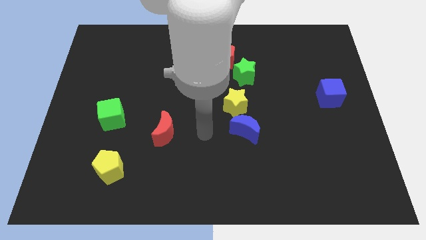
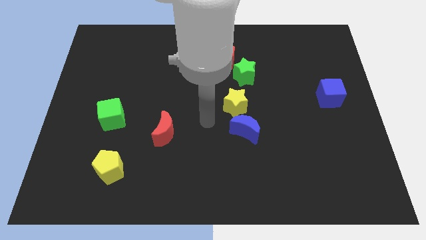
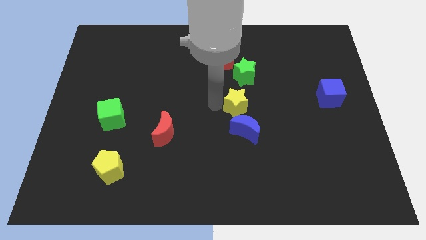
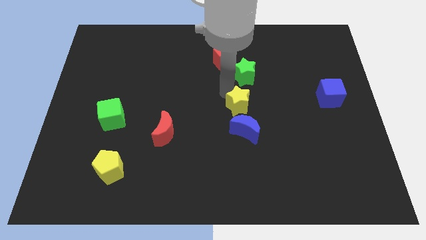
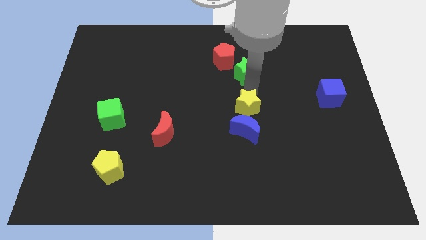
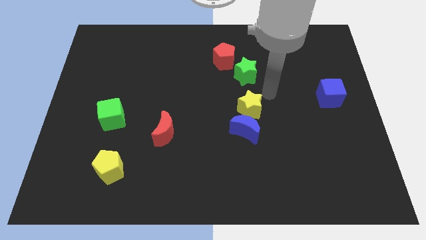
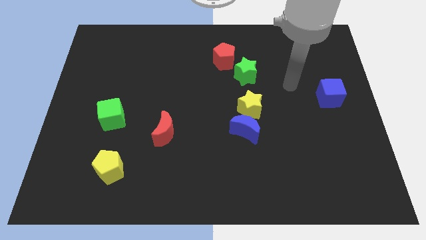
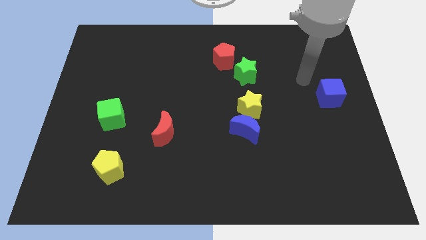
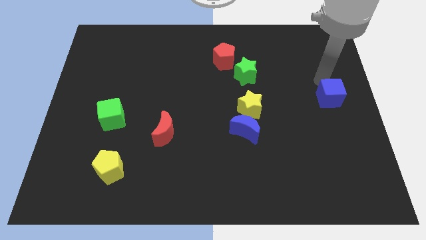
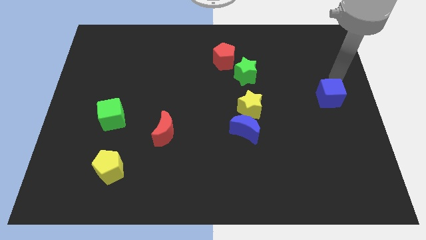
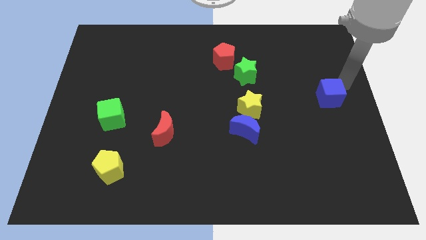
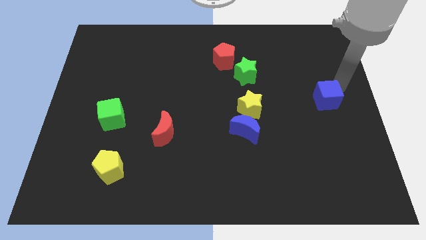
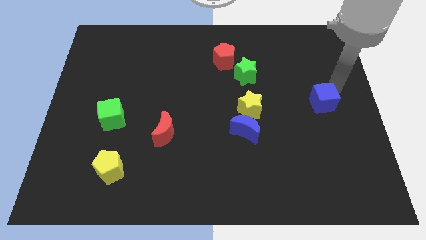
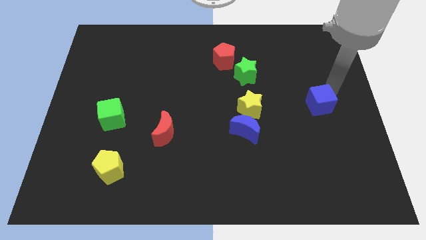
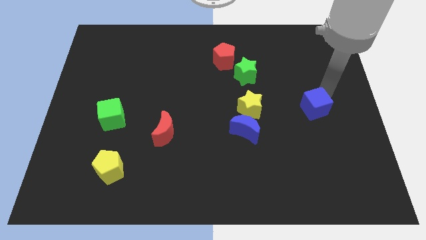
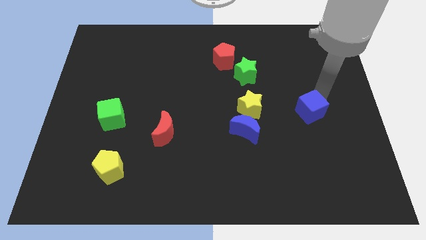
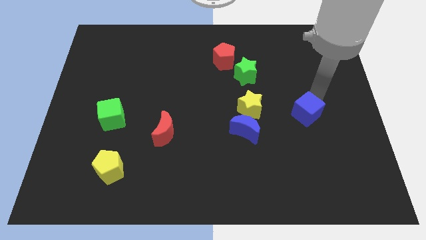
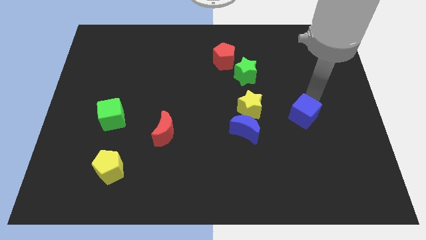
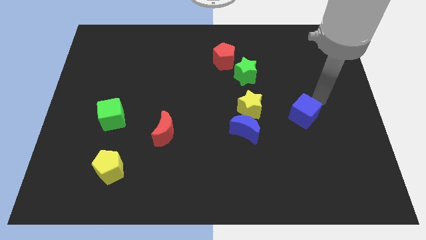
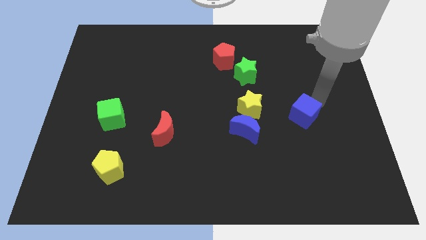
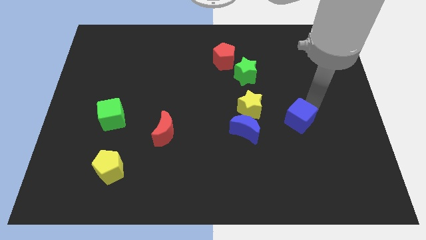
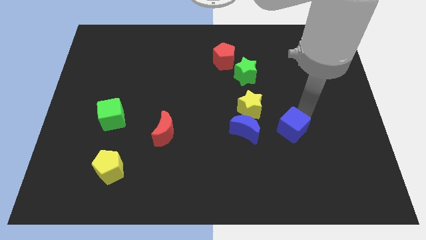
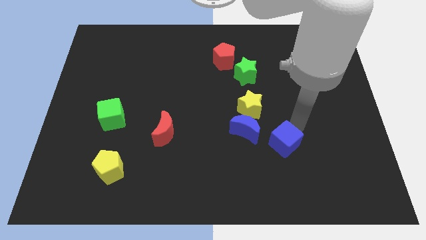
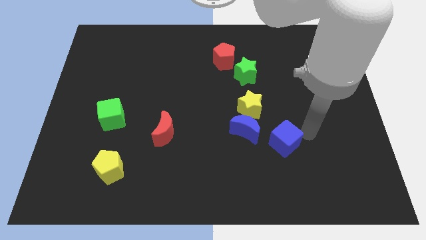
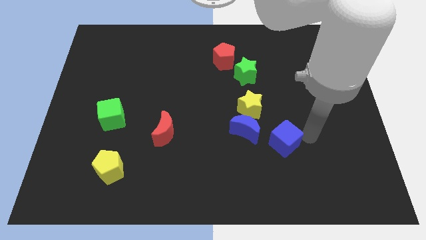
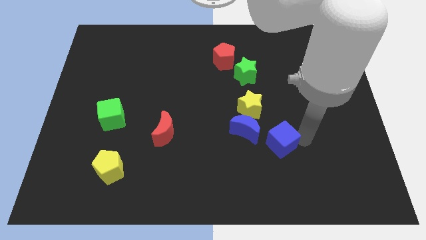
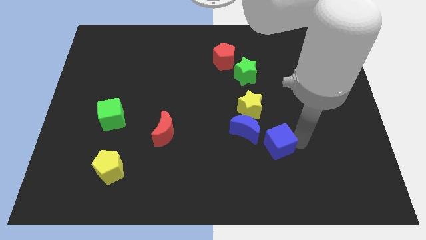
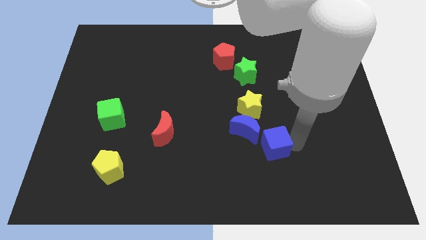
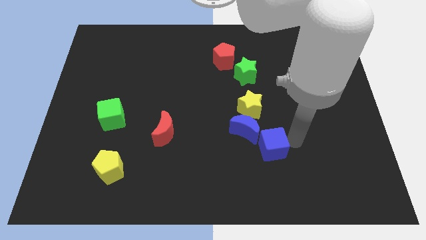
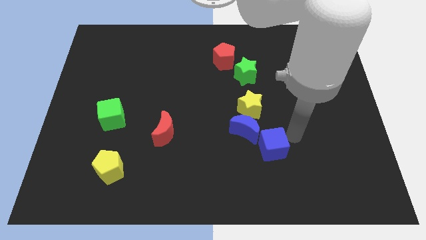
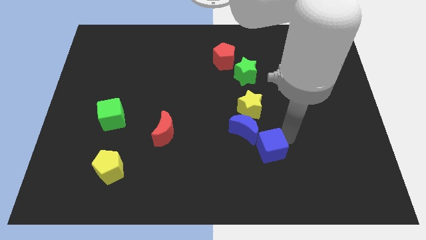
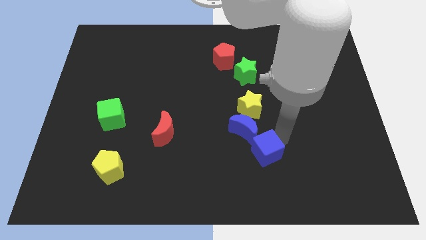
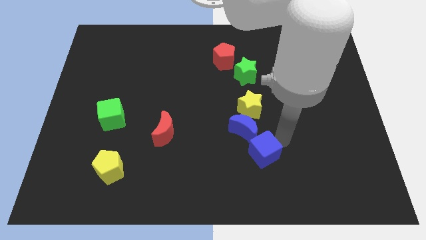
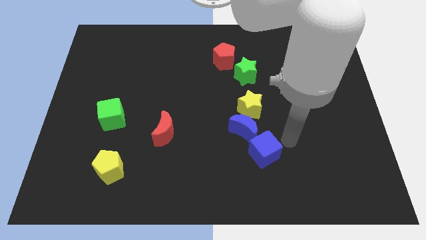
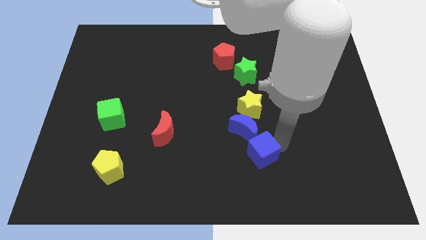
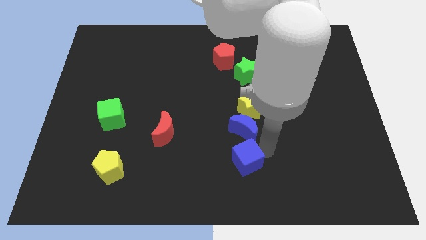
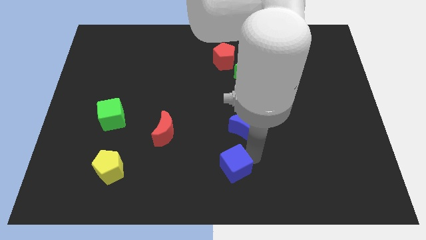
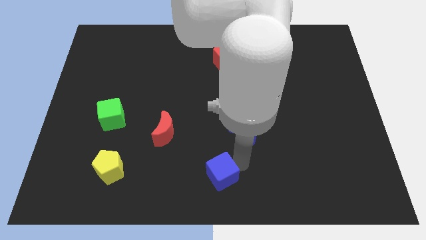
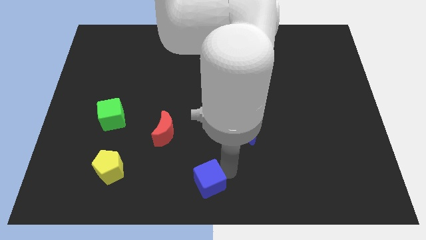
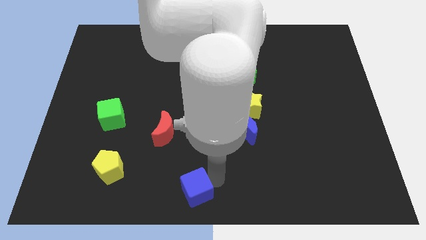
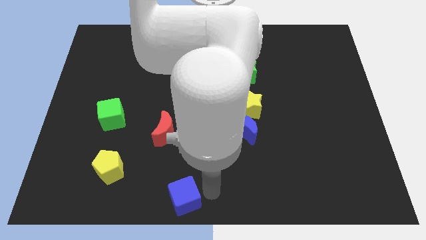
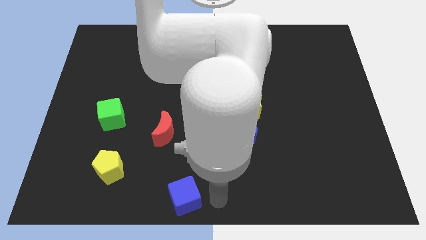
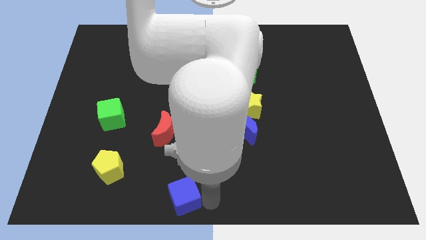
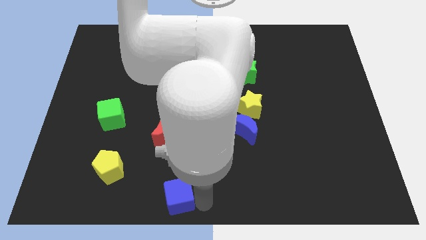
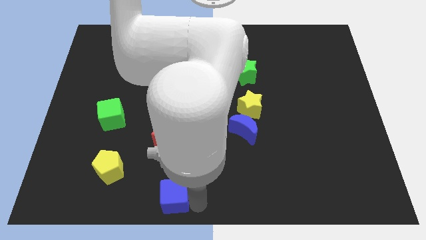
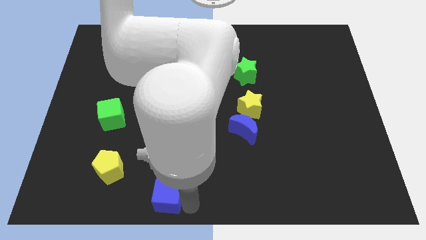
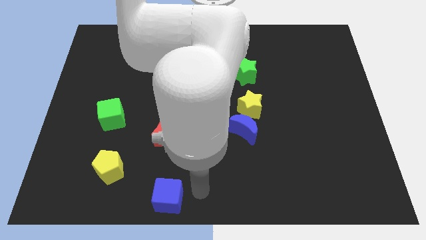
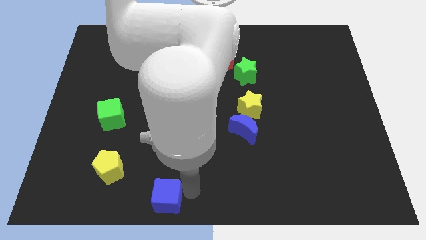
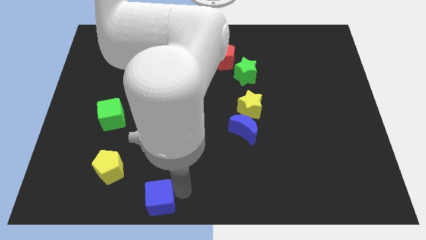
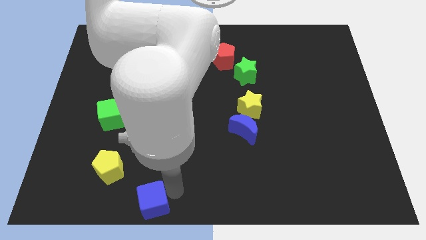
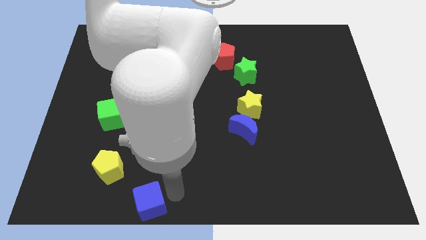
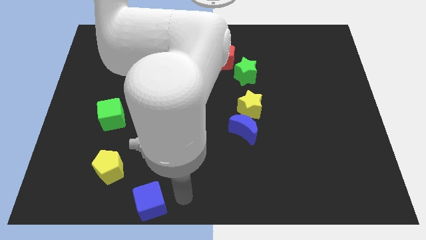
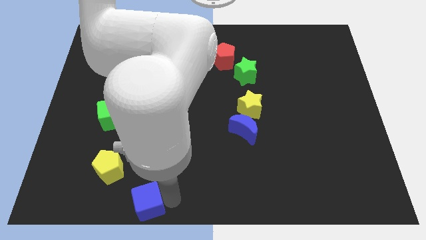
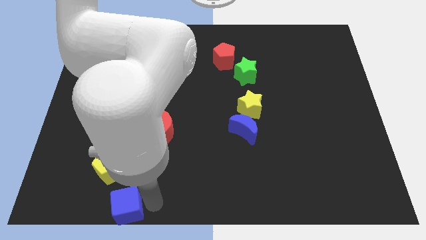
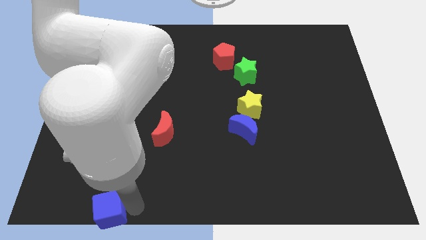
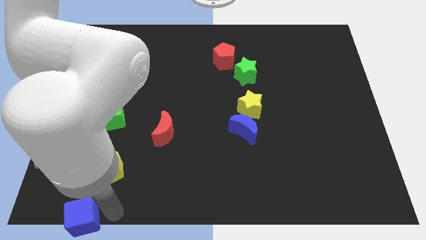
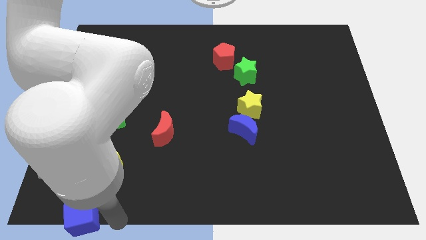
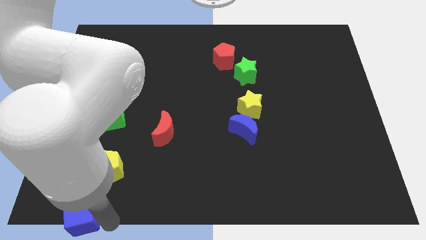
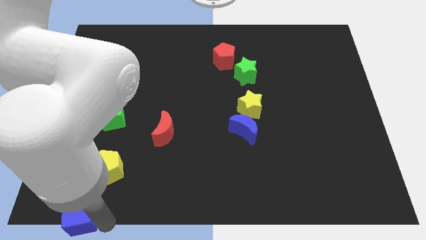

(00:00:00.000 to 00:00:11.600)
move the blue cube to the bottom left
